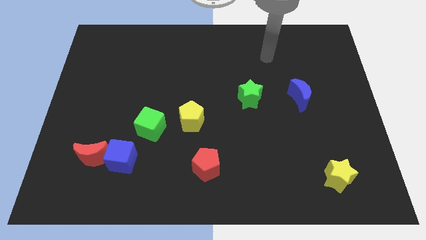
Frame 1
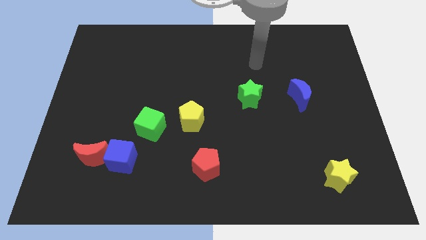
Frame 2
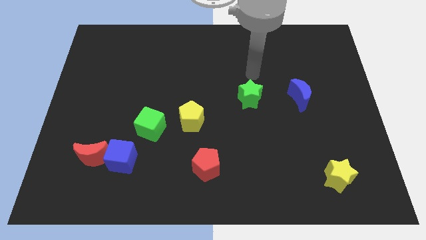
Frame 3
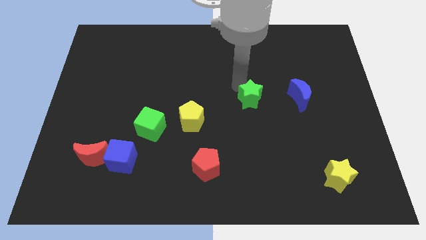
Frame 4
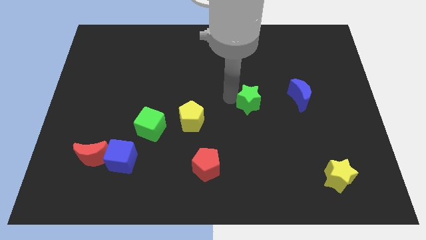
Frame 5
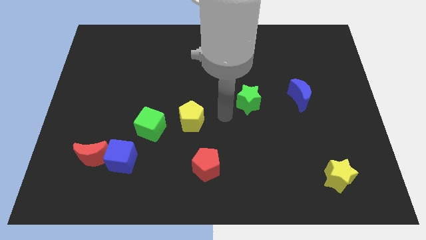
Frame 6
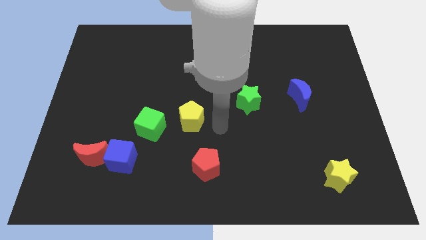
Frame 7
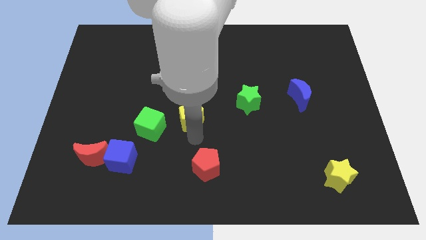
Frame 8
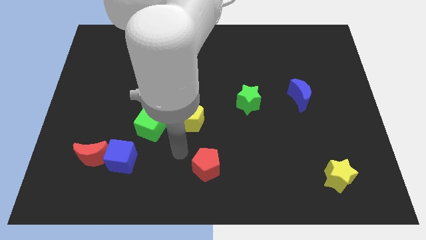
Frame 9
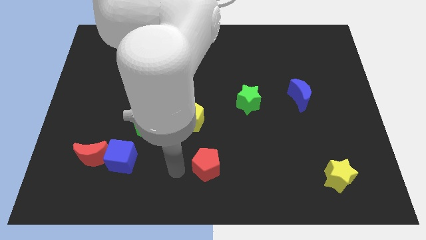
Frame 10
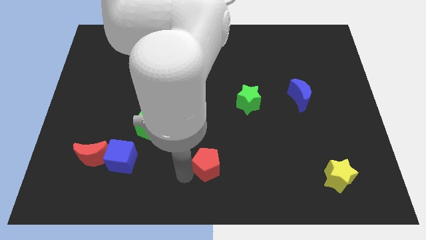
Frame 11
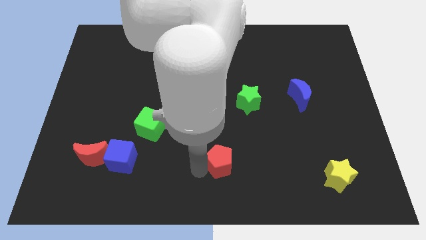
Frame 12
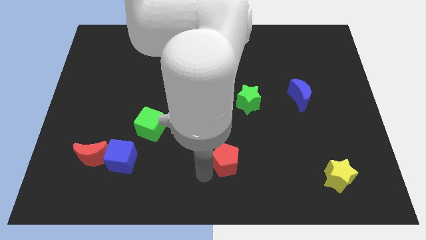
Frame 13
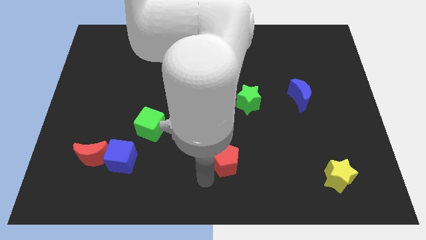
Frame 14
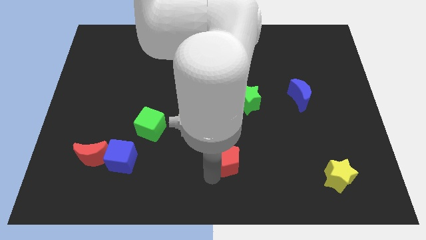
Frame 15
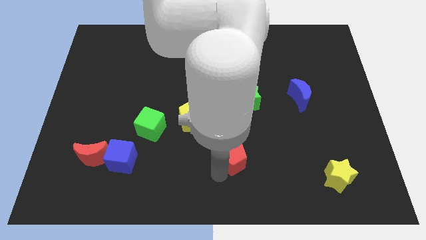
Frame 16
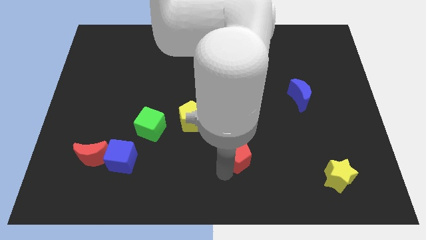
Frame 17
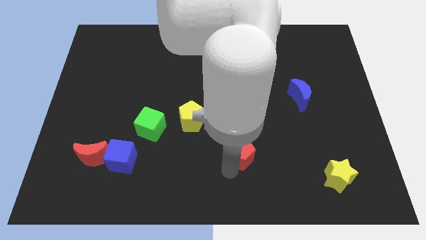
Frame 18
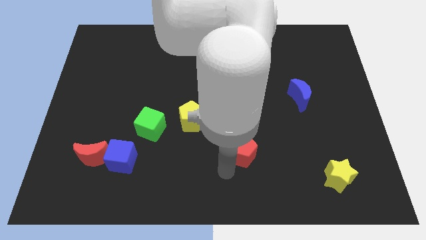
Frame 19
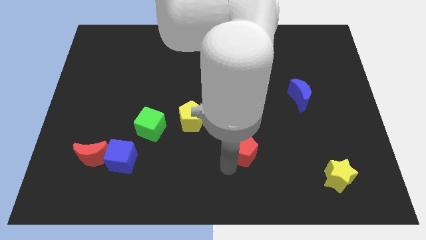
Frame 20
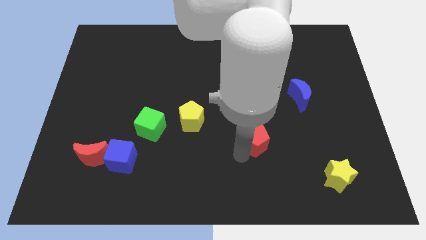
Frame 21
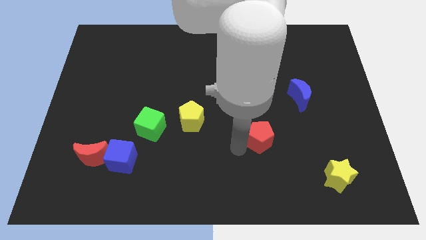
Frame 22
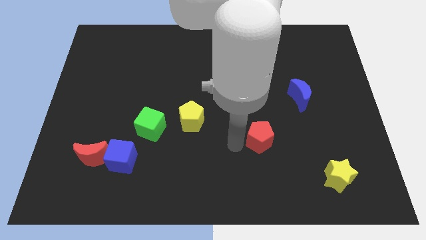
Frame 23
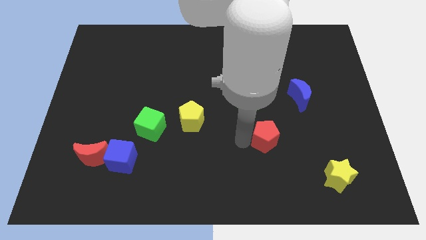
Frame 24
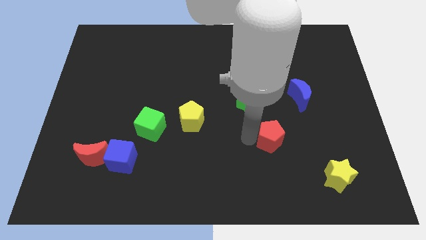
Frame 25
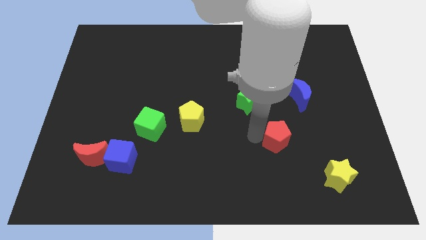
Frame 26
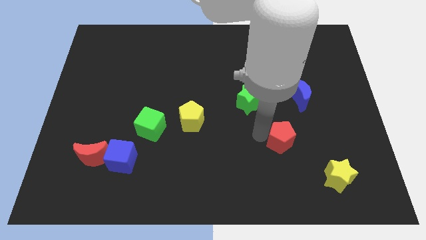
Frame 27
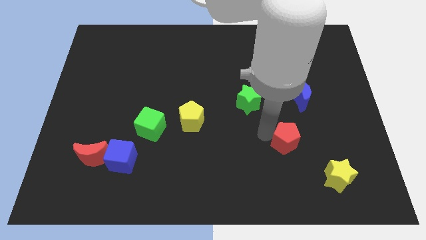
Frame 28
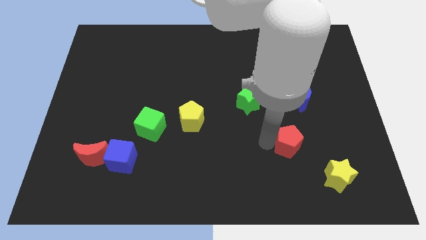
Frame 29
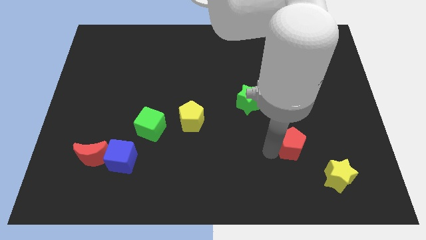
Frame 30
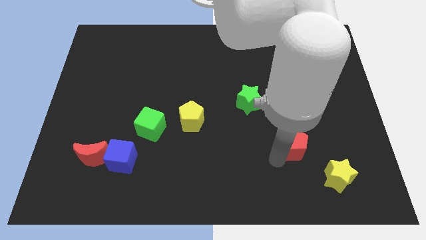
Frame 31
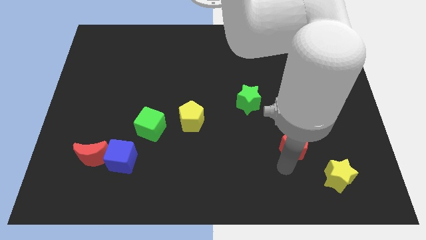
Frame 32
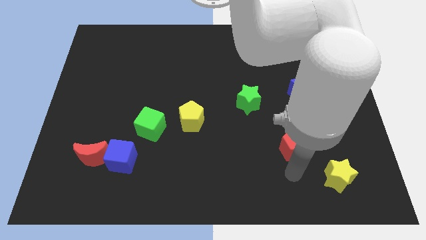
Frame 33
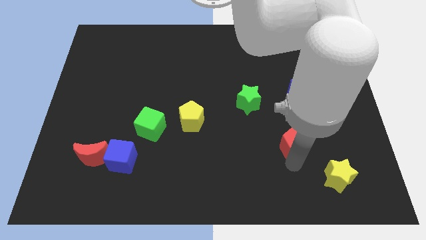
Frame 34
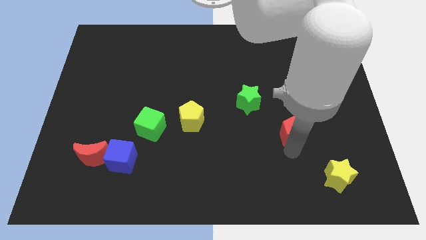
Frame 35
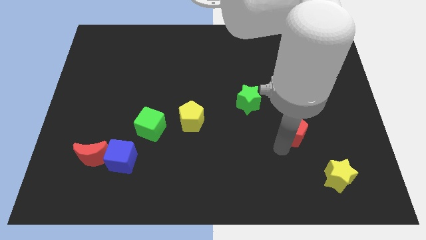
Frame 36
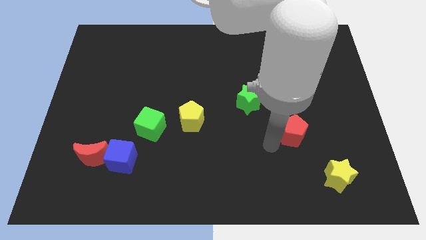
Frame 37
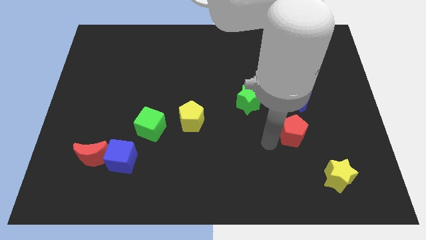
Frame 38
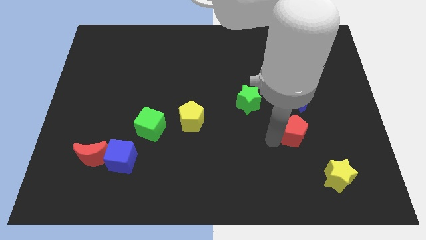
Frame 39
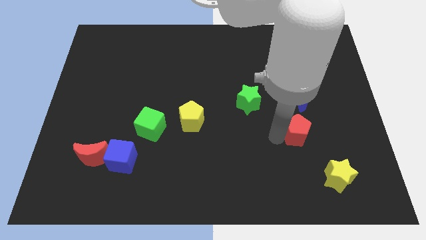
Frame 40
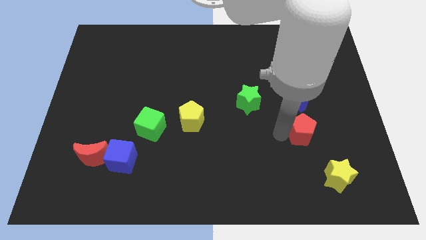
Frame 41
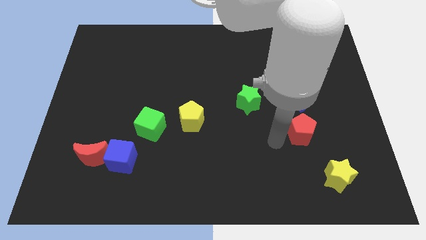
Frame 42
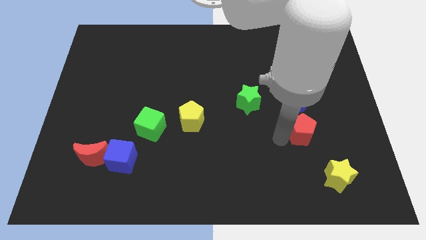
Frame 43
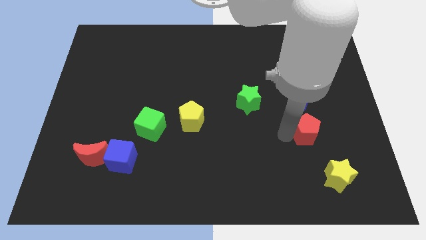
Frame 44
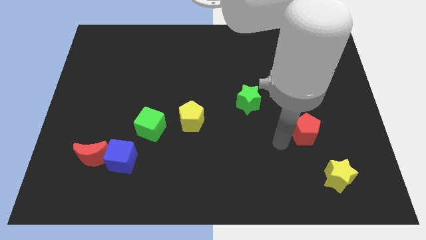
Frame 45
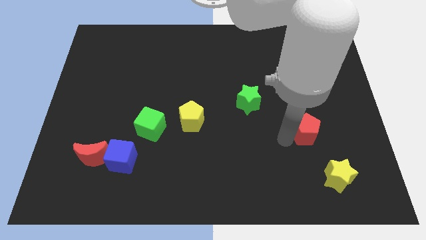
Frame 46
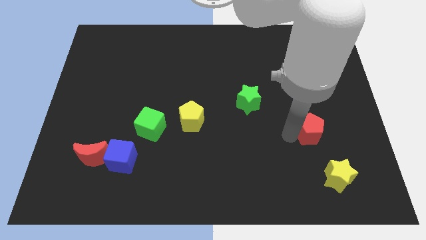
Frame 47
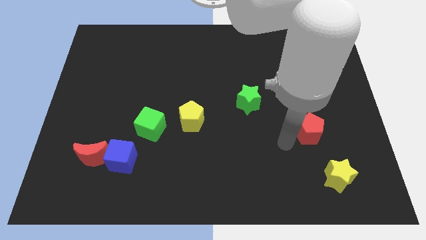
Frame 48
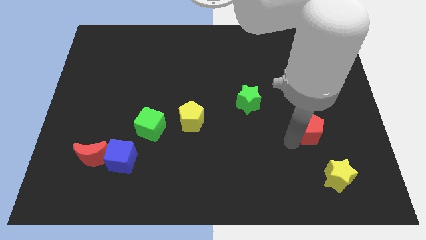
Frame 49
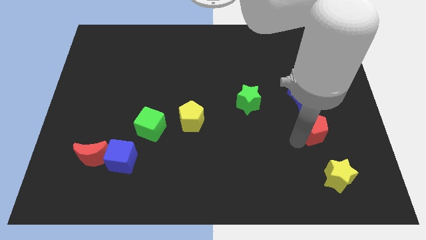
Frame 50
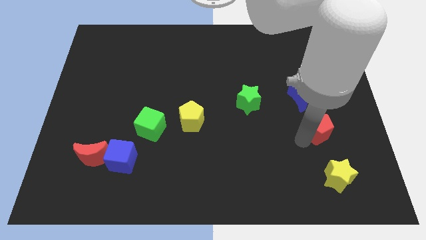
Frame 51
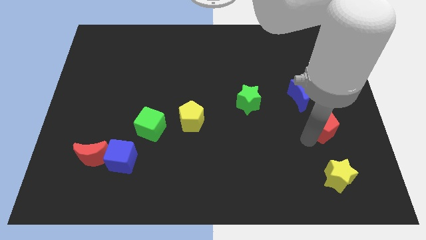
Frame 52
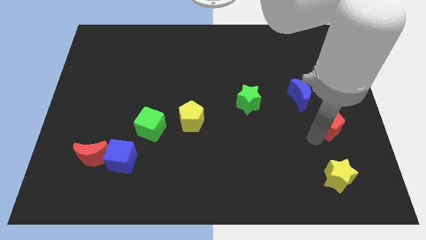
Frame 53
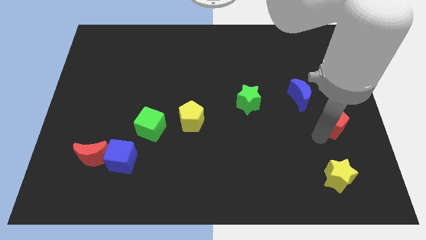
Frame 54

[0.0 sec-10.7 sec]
push the red pentagon to the right side

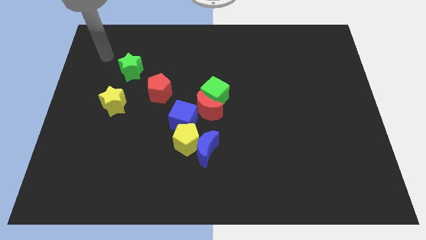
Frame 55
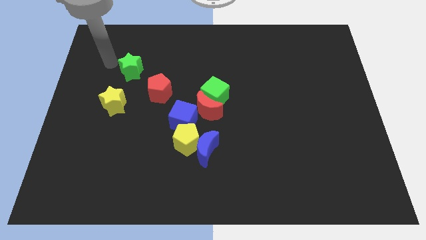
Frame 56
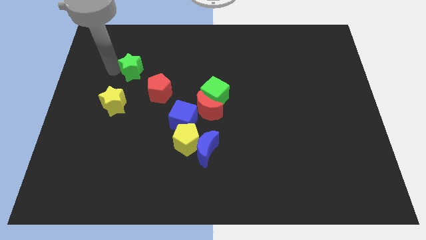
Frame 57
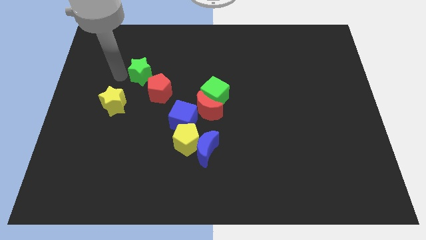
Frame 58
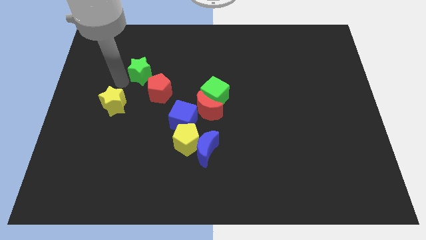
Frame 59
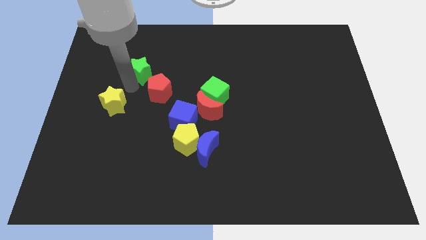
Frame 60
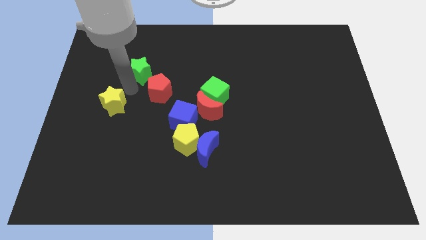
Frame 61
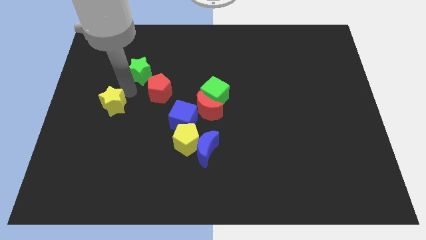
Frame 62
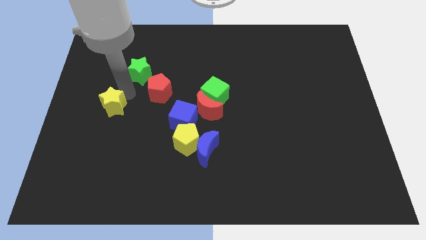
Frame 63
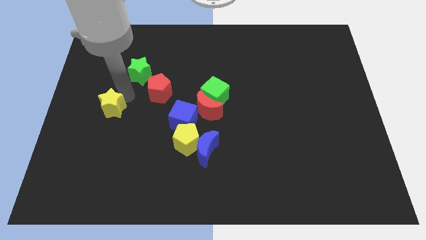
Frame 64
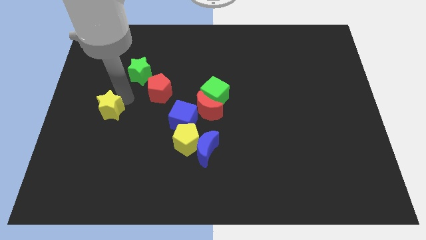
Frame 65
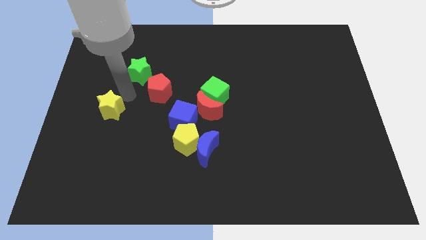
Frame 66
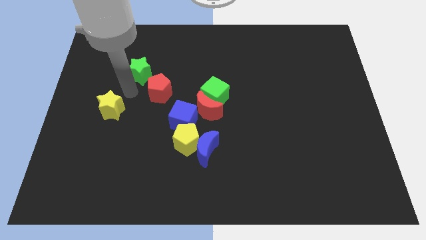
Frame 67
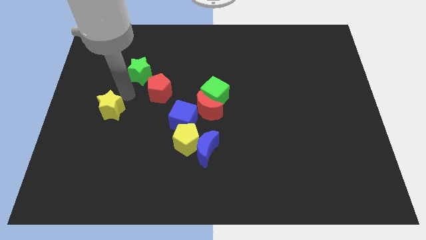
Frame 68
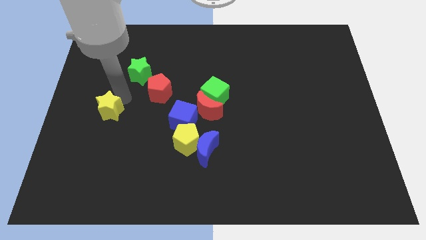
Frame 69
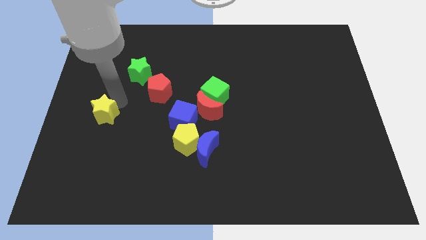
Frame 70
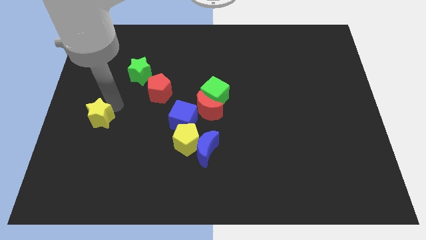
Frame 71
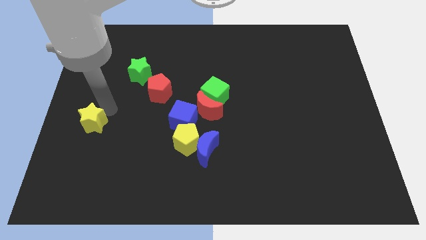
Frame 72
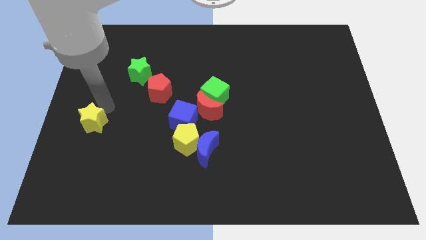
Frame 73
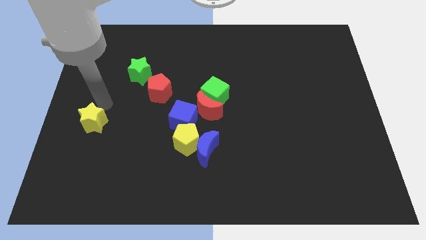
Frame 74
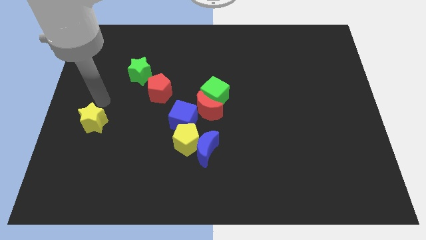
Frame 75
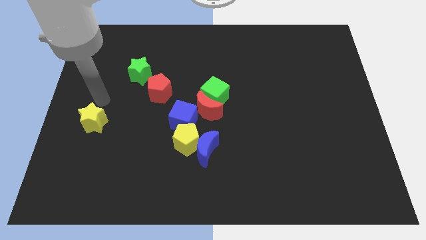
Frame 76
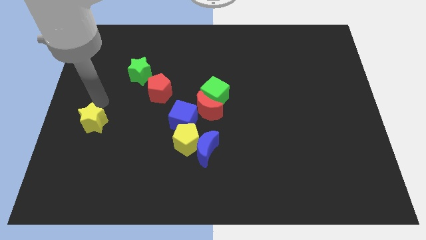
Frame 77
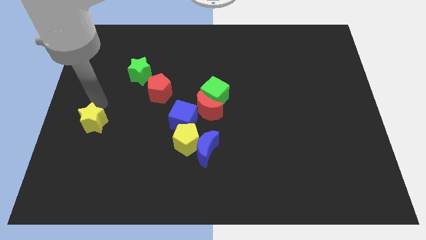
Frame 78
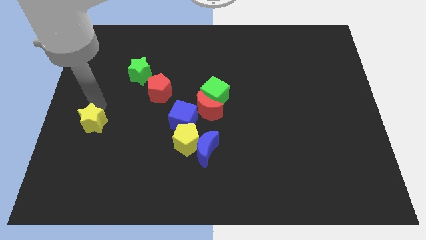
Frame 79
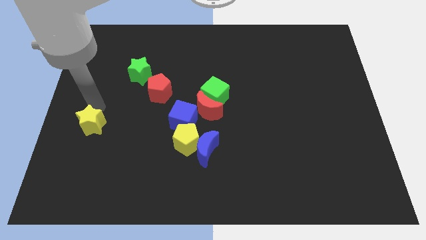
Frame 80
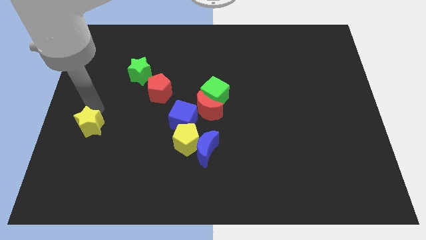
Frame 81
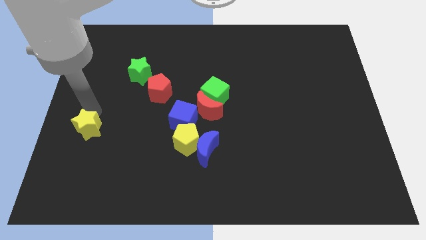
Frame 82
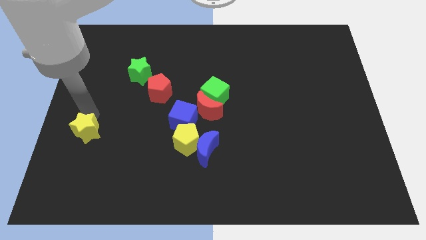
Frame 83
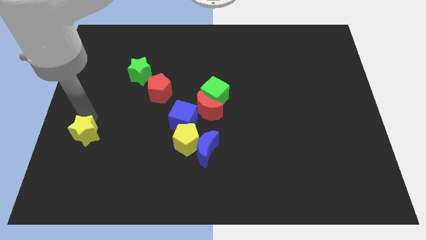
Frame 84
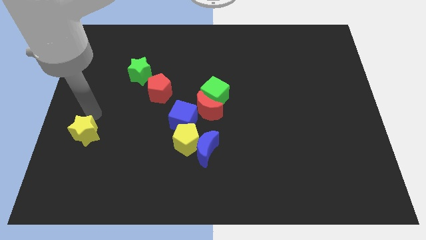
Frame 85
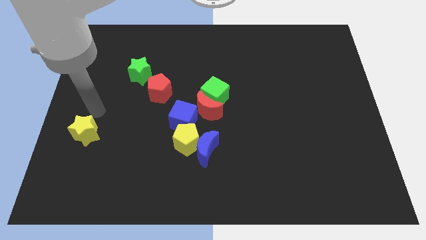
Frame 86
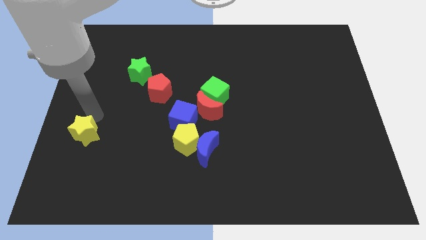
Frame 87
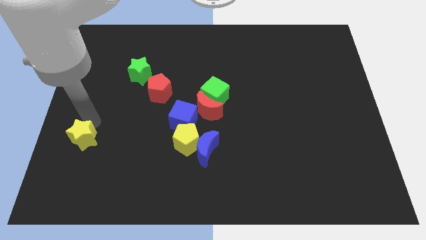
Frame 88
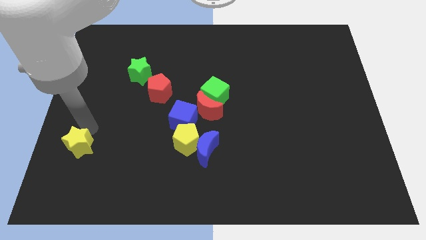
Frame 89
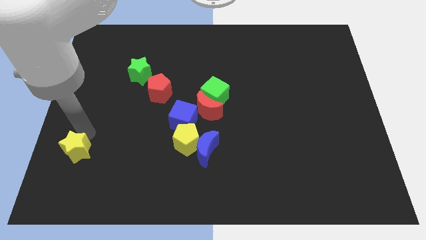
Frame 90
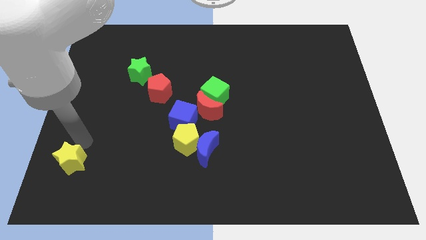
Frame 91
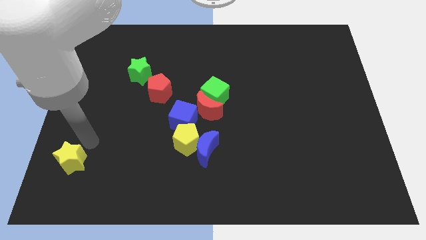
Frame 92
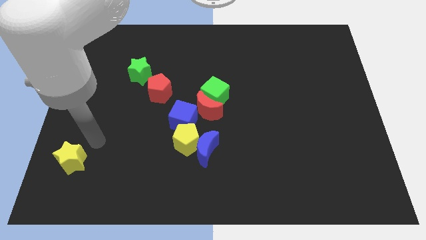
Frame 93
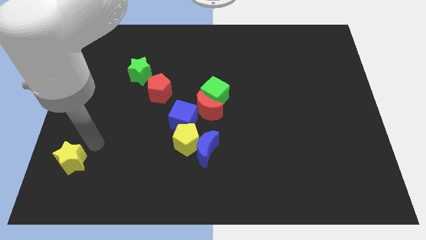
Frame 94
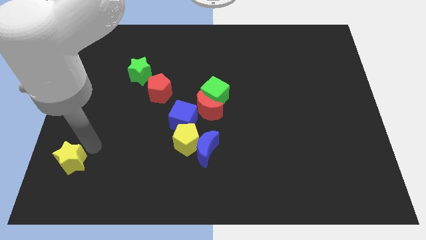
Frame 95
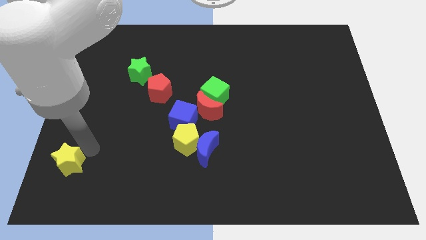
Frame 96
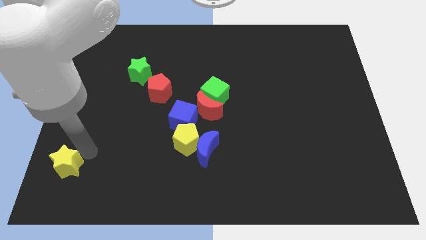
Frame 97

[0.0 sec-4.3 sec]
move the yellow star to the bottom left
